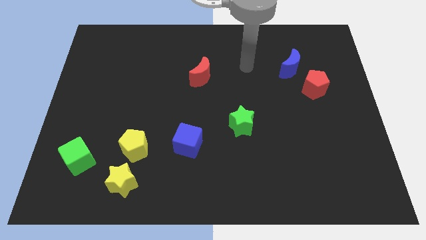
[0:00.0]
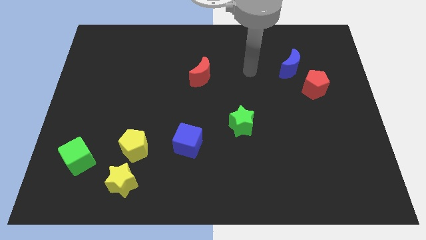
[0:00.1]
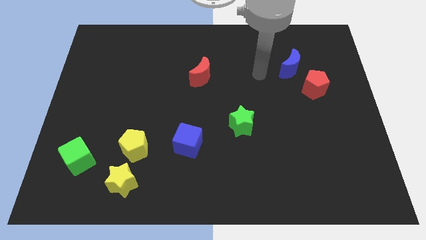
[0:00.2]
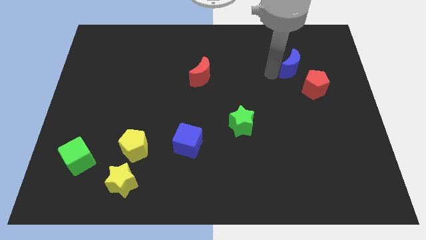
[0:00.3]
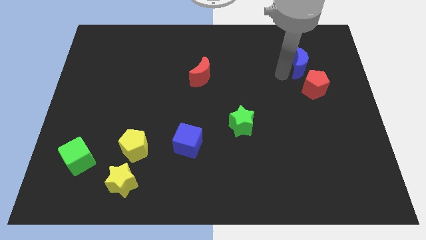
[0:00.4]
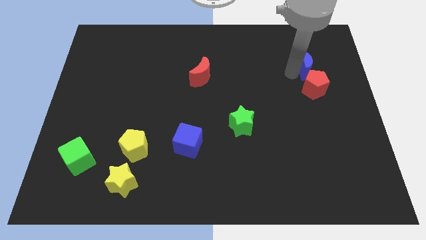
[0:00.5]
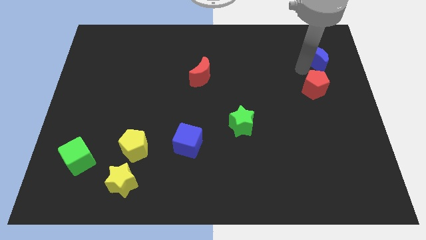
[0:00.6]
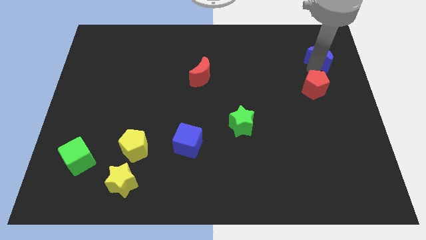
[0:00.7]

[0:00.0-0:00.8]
separate the red pentagon from the blue moon

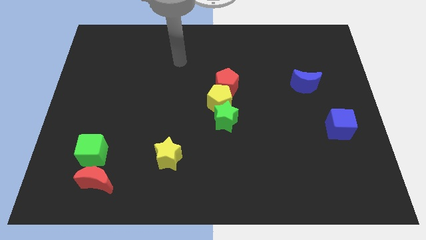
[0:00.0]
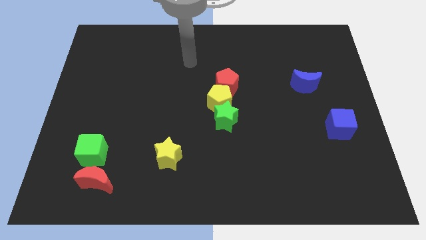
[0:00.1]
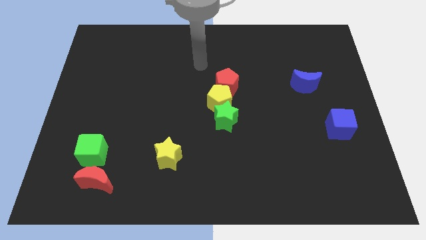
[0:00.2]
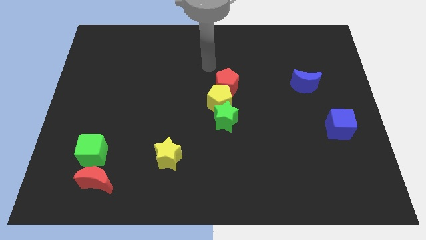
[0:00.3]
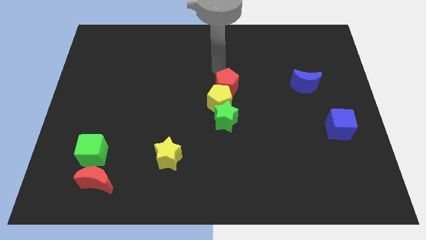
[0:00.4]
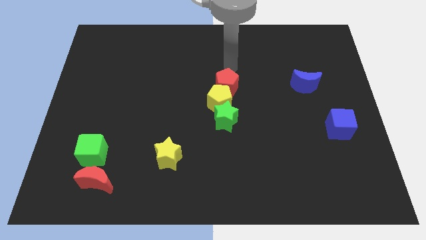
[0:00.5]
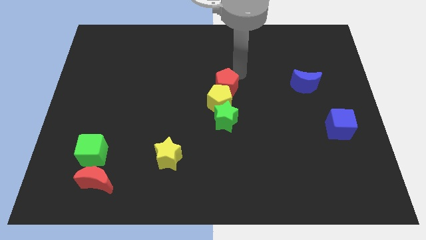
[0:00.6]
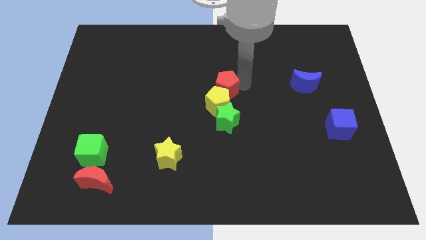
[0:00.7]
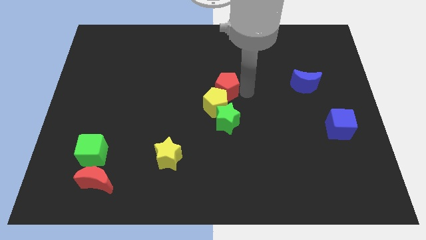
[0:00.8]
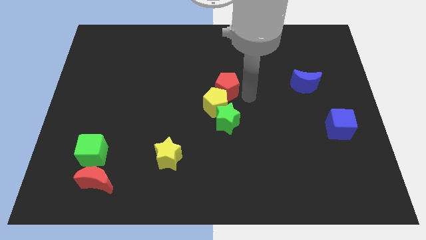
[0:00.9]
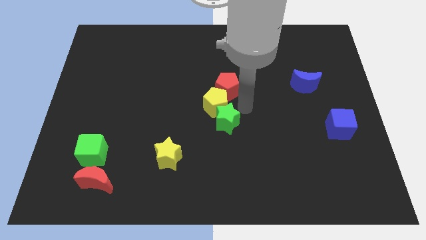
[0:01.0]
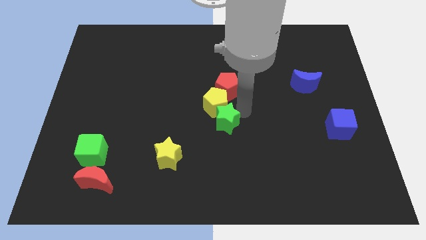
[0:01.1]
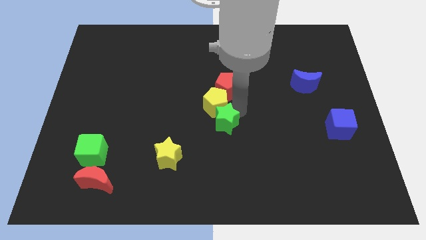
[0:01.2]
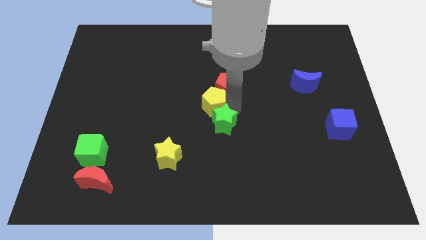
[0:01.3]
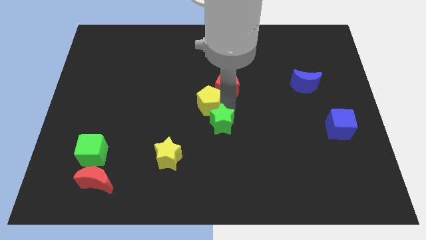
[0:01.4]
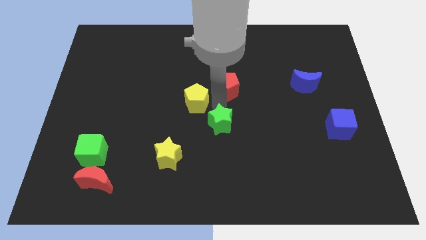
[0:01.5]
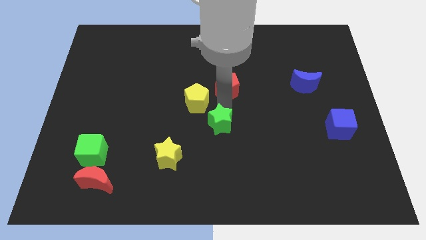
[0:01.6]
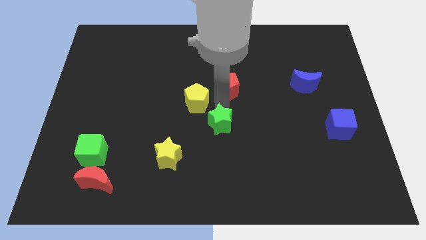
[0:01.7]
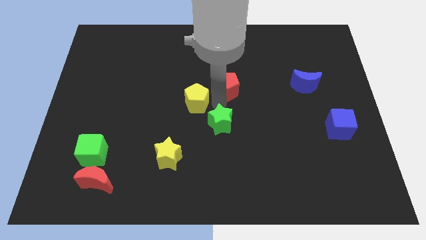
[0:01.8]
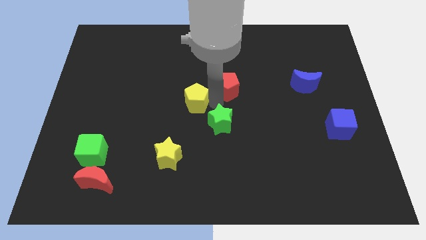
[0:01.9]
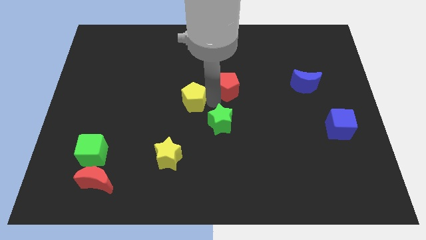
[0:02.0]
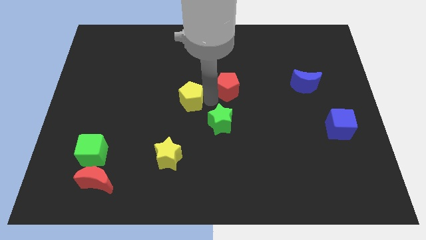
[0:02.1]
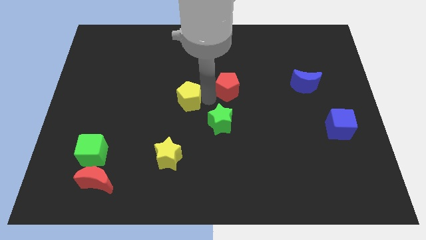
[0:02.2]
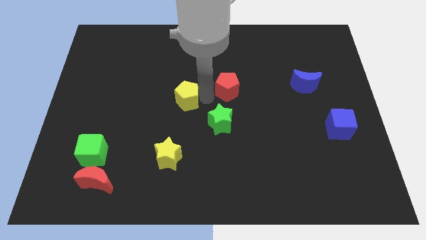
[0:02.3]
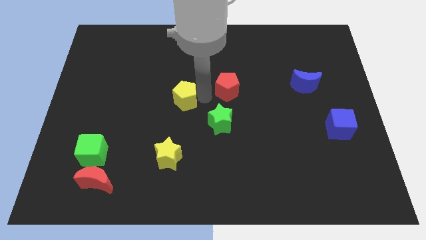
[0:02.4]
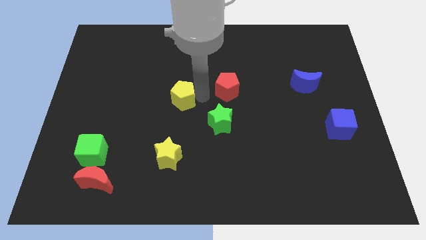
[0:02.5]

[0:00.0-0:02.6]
move the yellow pentagon away from the red pentagon and green star

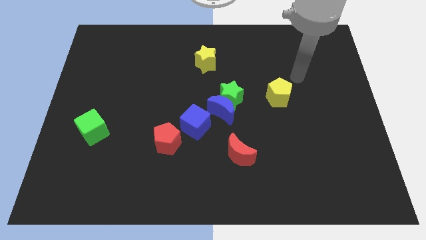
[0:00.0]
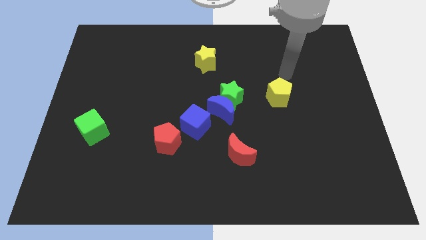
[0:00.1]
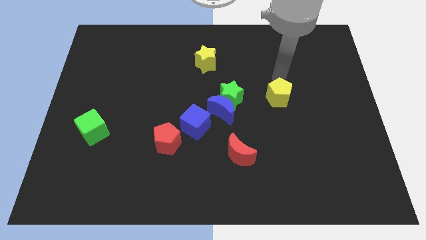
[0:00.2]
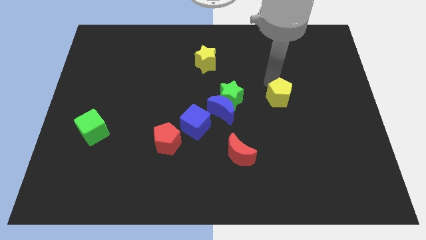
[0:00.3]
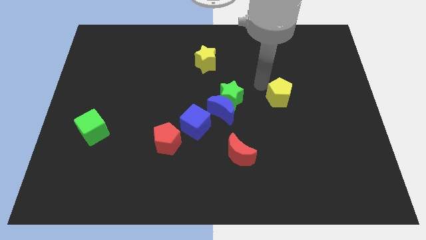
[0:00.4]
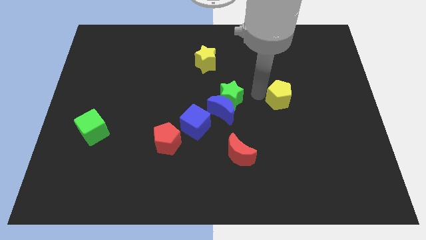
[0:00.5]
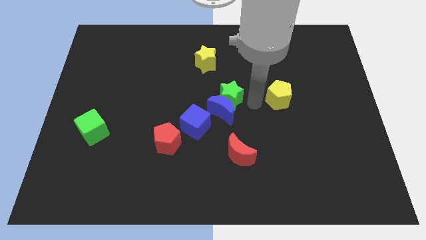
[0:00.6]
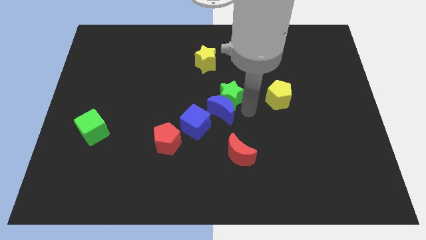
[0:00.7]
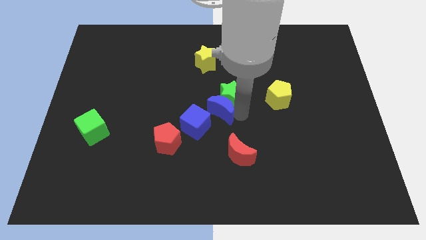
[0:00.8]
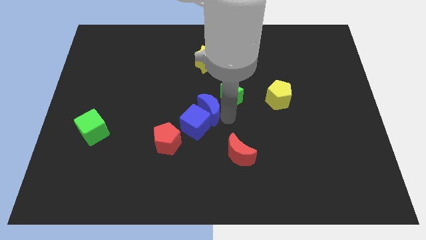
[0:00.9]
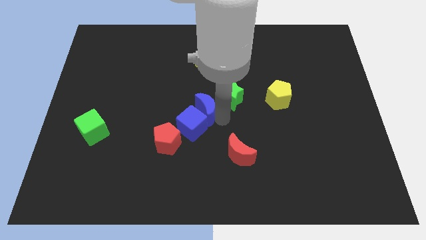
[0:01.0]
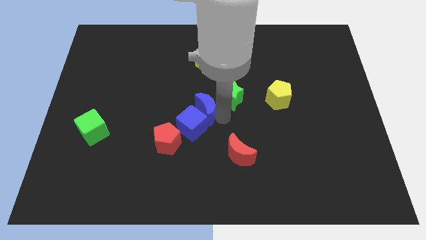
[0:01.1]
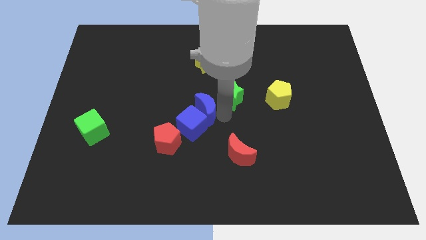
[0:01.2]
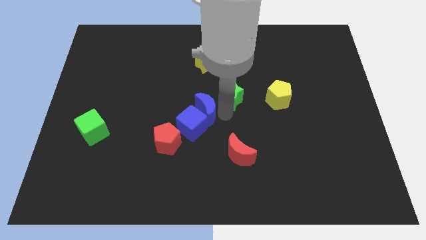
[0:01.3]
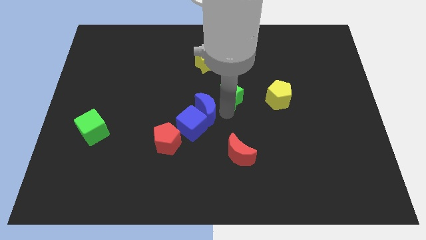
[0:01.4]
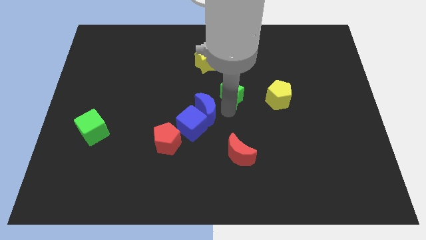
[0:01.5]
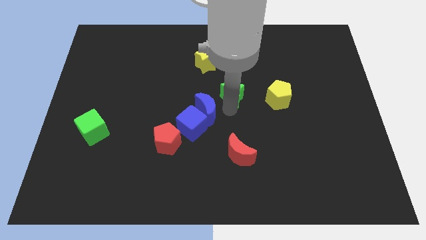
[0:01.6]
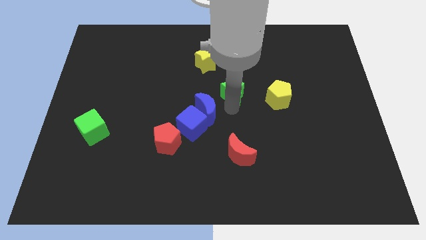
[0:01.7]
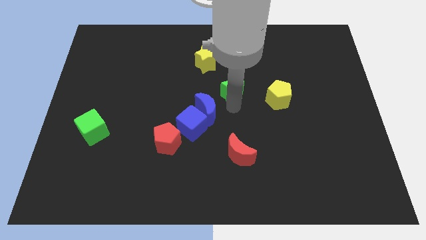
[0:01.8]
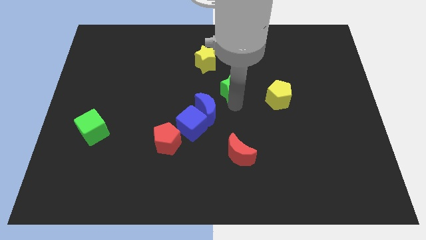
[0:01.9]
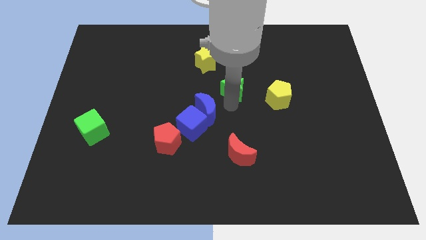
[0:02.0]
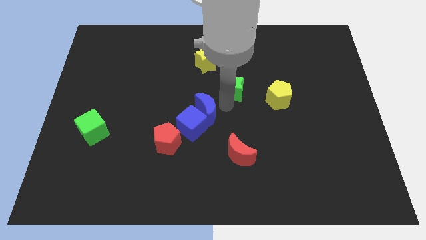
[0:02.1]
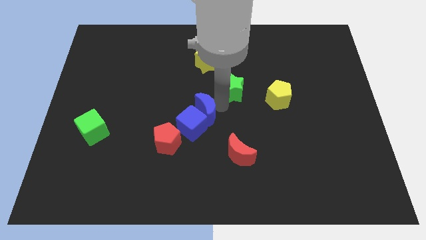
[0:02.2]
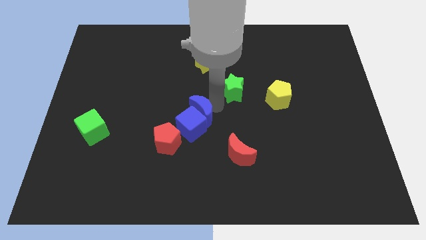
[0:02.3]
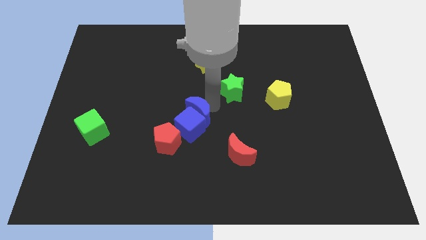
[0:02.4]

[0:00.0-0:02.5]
pull the green star apart from the blue moon

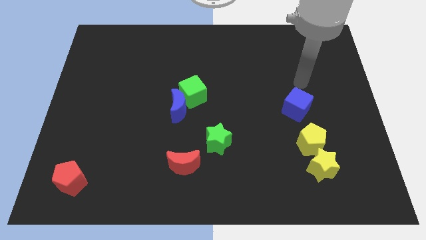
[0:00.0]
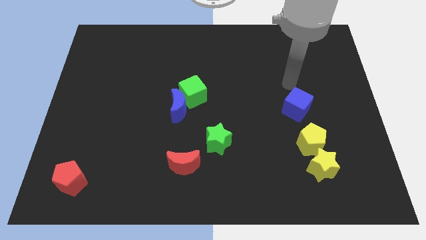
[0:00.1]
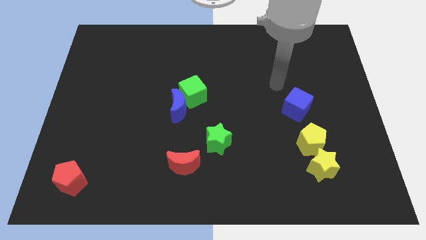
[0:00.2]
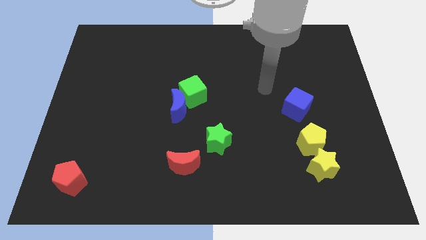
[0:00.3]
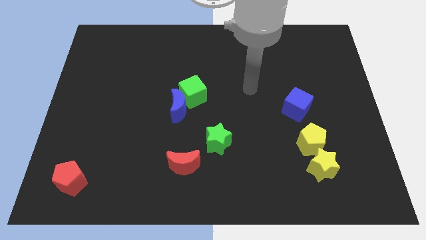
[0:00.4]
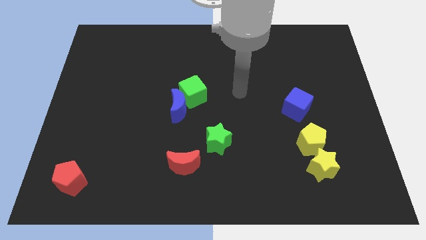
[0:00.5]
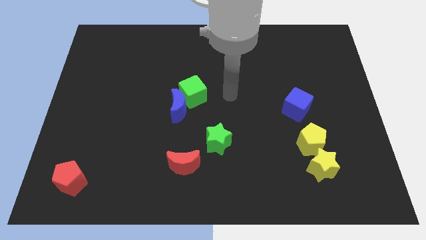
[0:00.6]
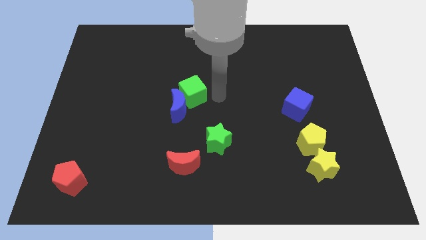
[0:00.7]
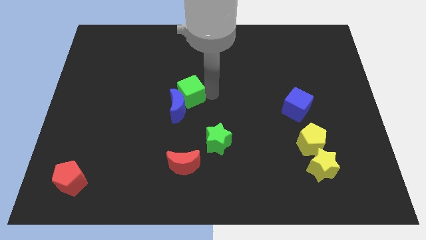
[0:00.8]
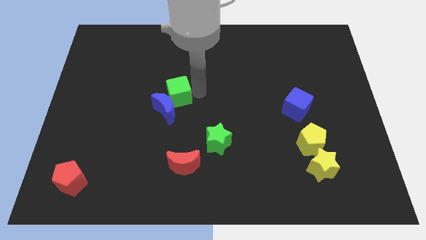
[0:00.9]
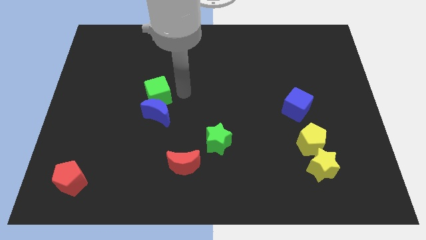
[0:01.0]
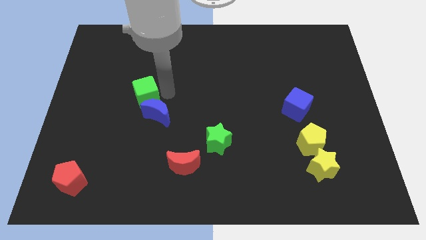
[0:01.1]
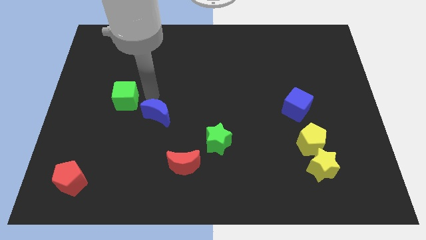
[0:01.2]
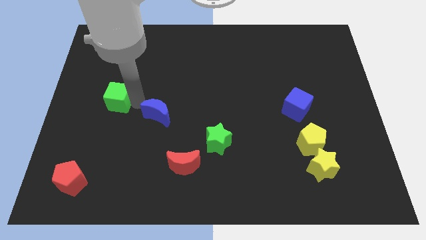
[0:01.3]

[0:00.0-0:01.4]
move the blue moon away from the green cube

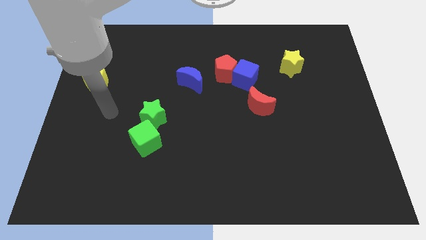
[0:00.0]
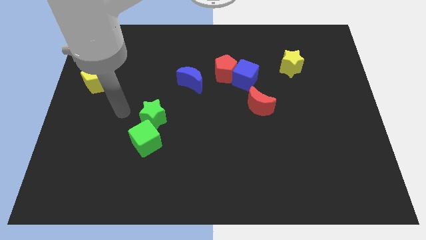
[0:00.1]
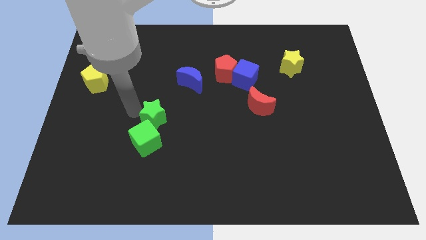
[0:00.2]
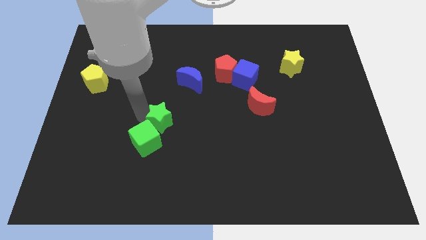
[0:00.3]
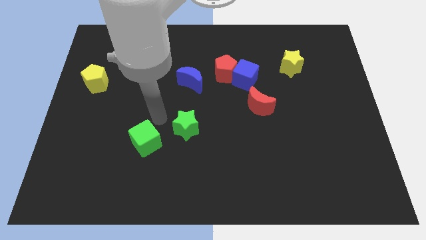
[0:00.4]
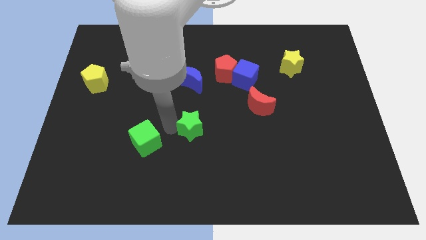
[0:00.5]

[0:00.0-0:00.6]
move the green cube away from the green star

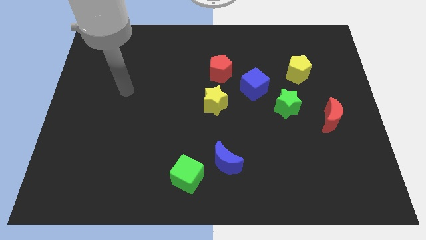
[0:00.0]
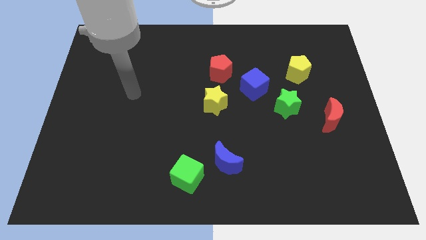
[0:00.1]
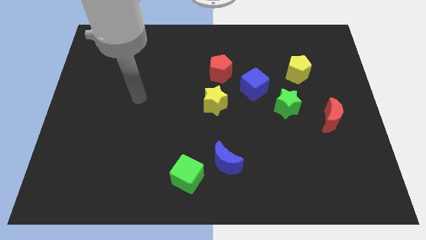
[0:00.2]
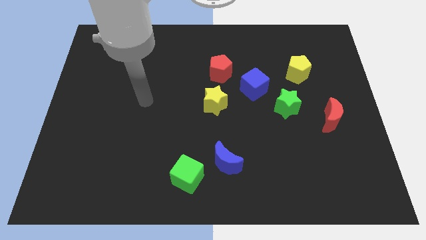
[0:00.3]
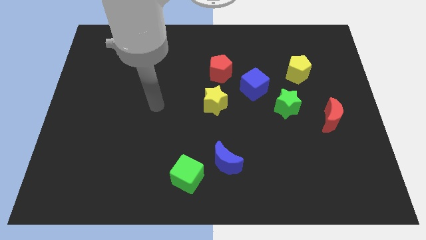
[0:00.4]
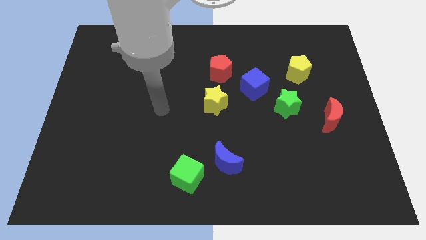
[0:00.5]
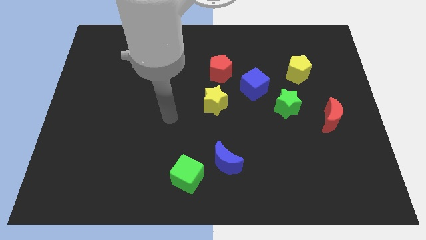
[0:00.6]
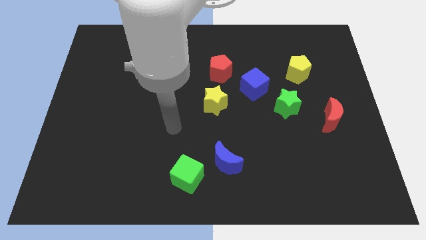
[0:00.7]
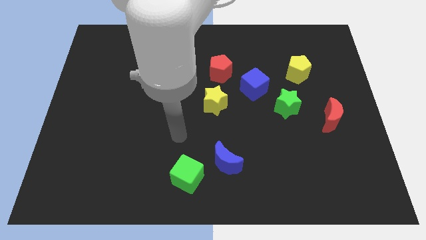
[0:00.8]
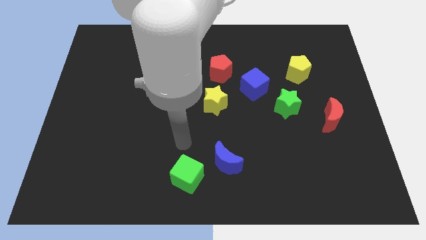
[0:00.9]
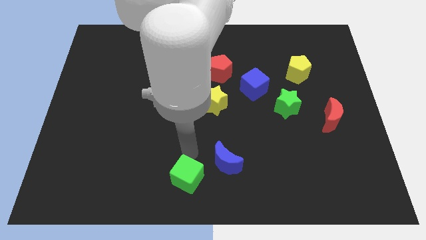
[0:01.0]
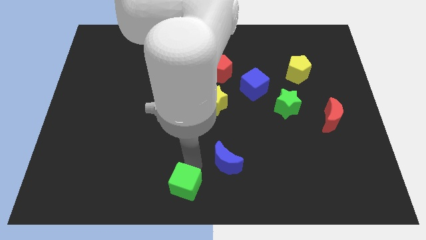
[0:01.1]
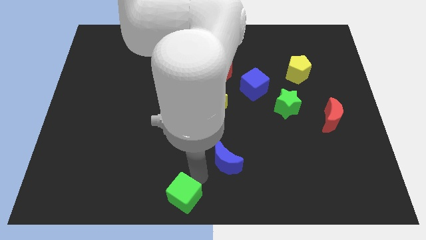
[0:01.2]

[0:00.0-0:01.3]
pull the blue moon apart from the green cube

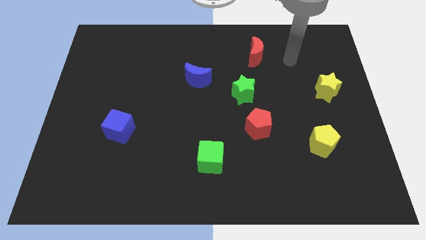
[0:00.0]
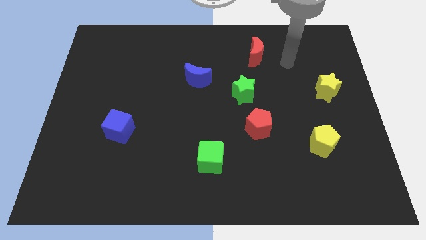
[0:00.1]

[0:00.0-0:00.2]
pull the red pentagon apart from the green star
